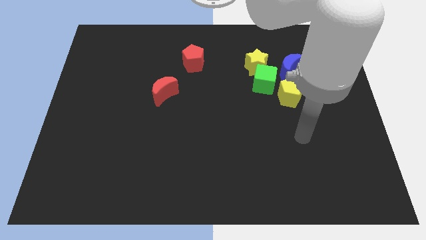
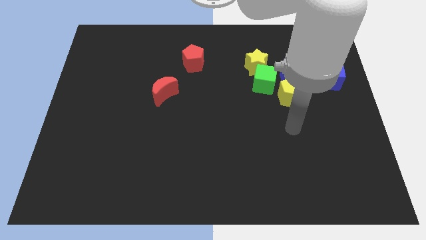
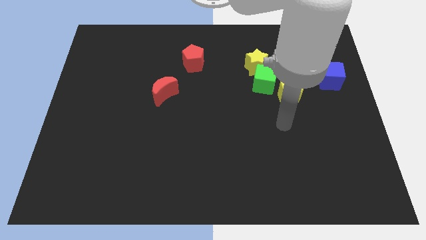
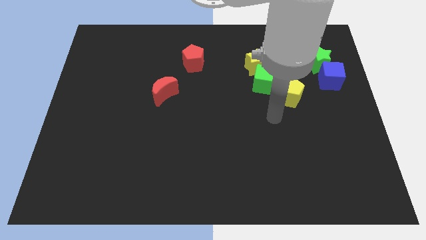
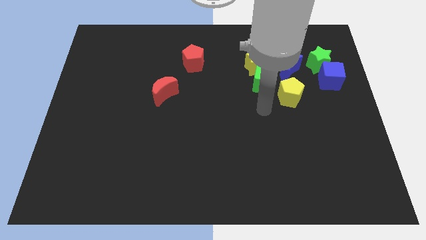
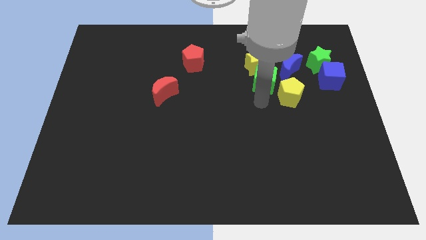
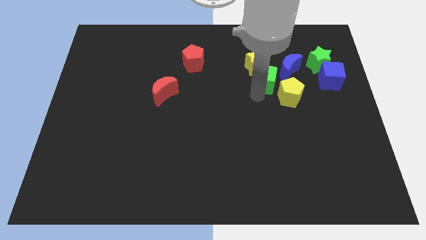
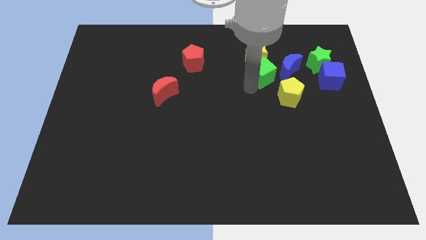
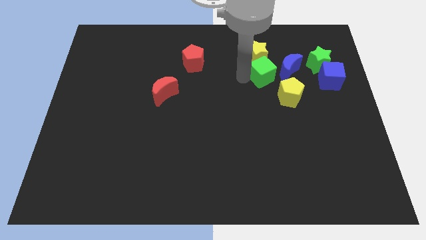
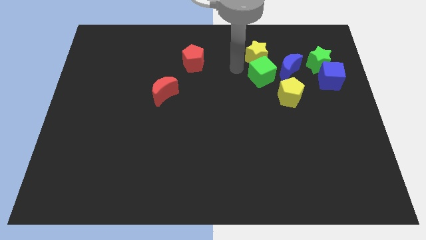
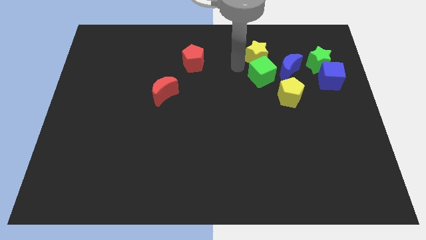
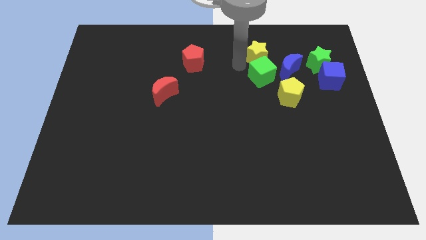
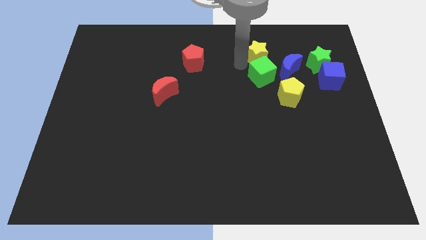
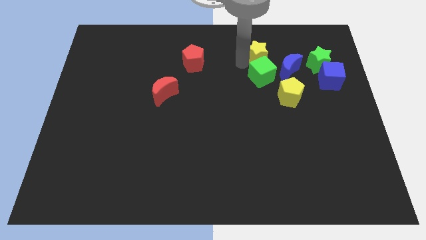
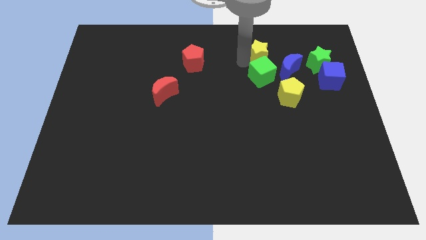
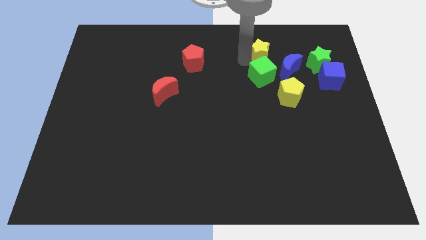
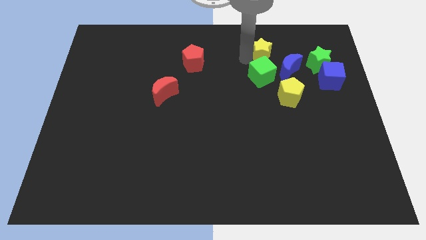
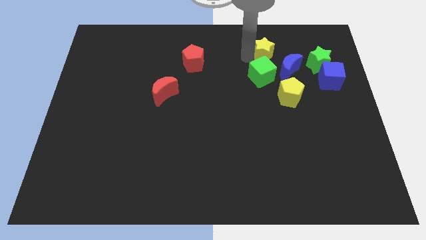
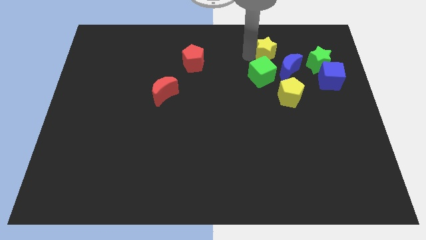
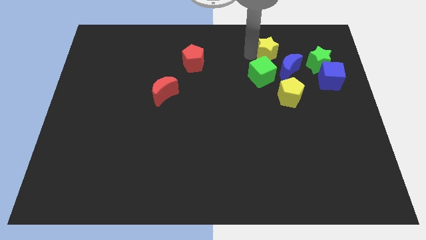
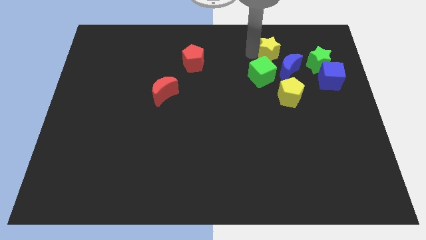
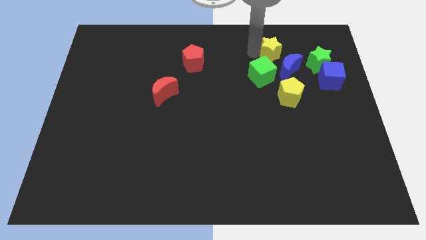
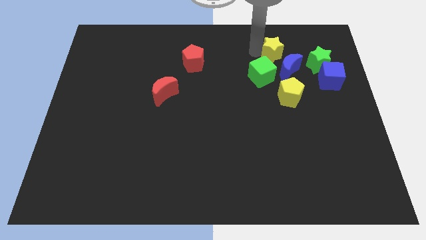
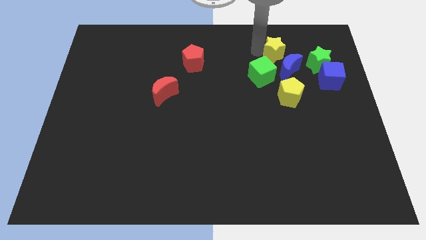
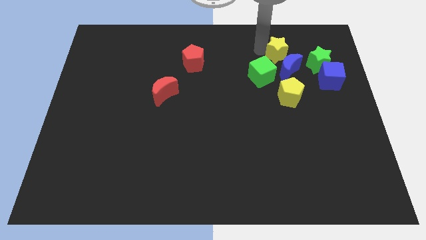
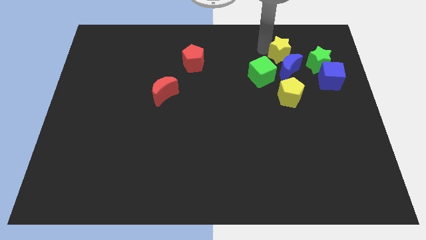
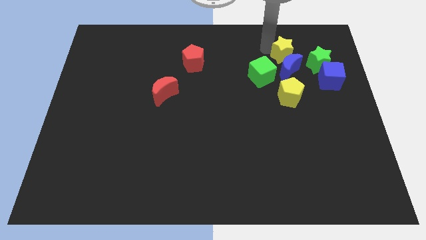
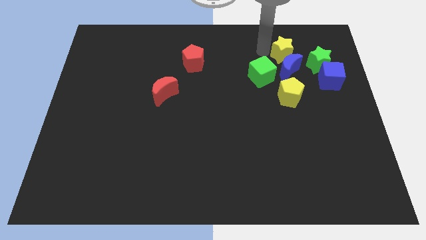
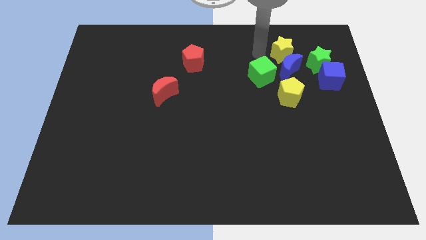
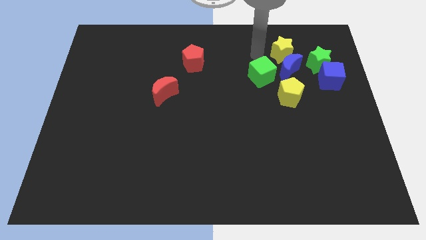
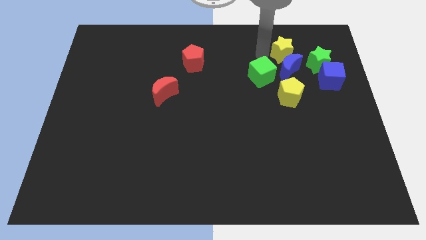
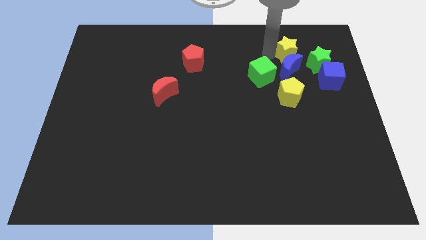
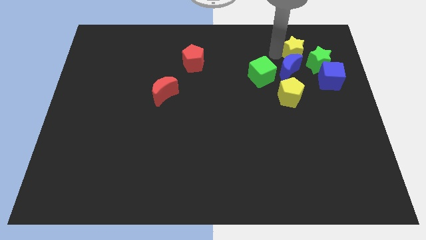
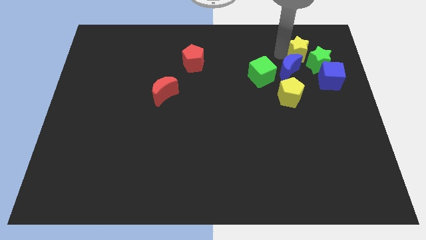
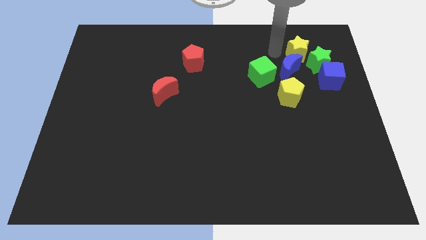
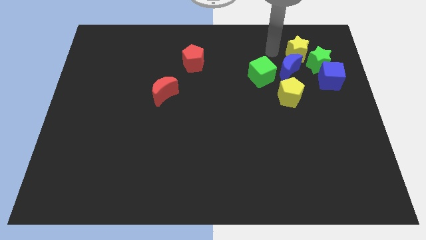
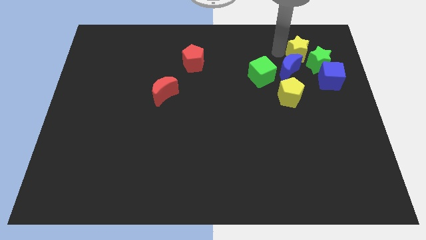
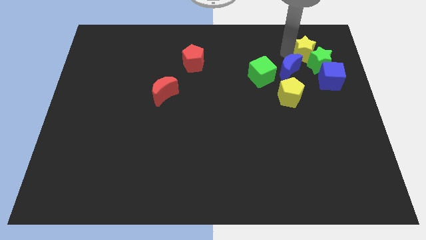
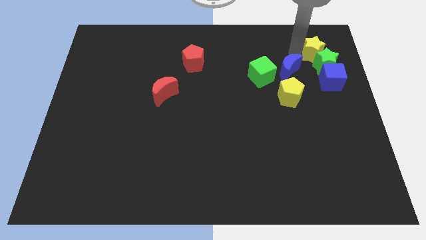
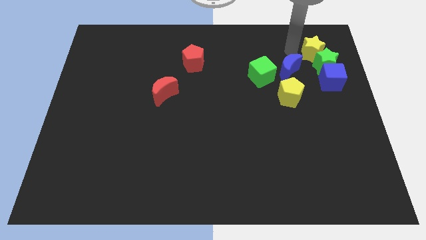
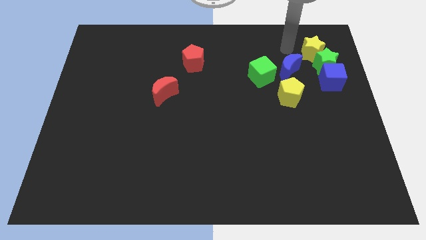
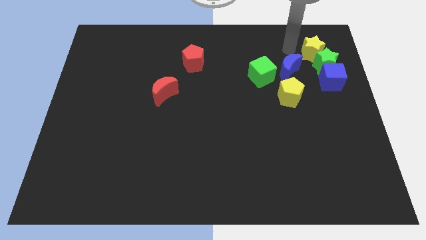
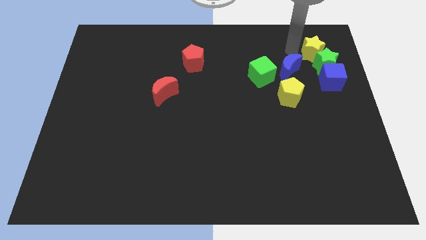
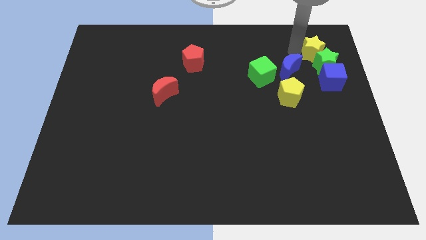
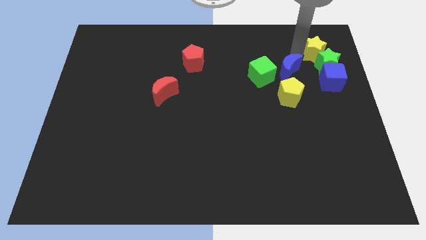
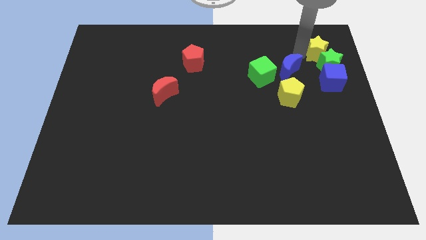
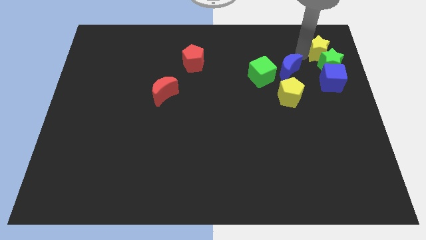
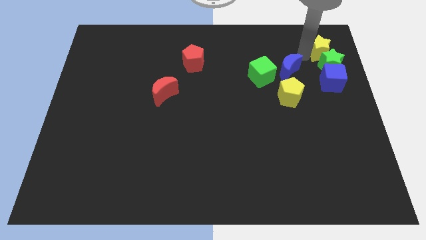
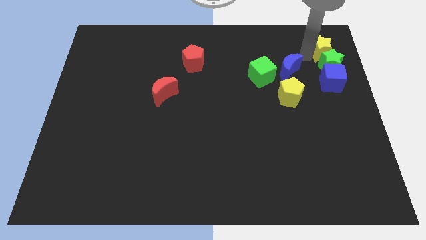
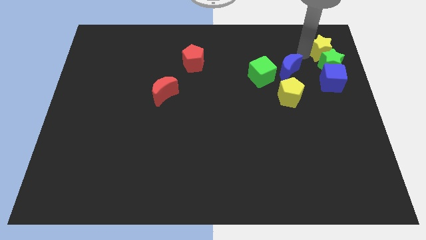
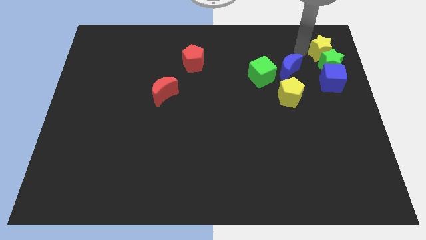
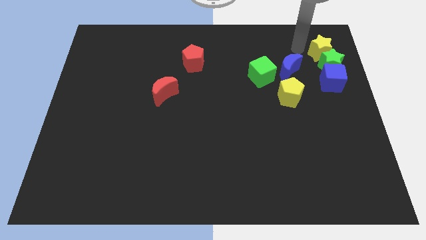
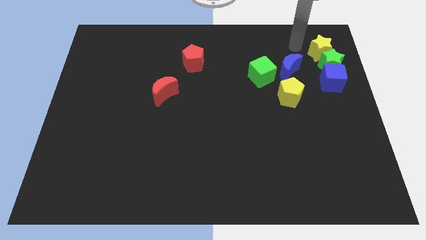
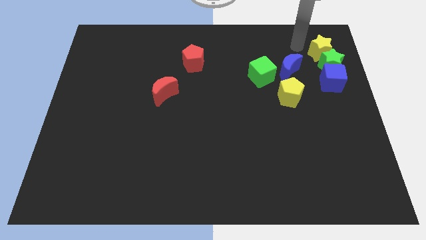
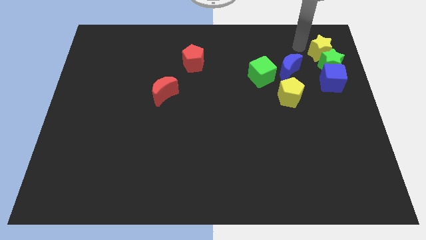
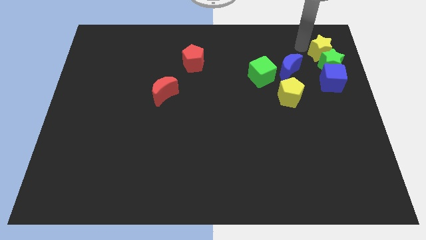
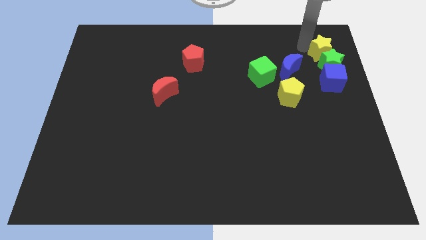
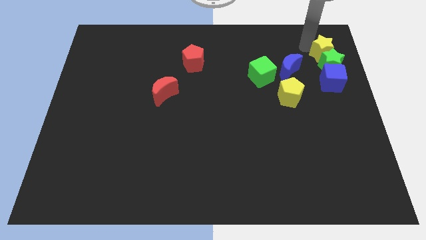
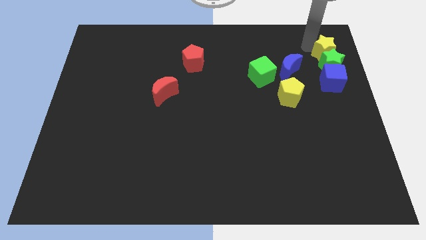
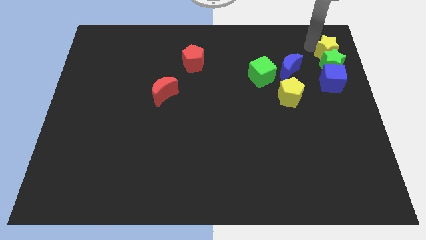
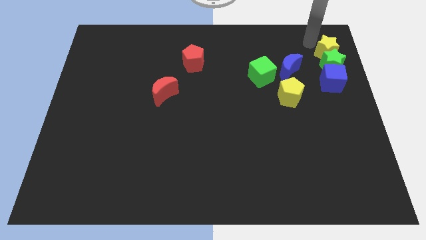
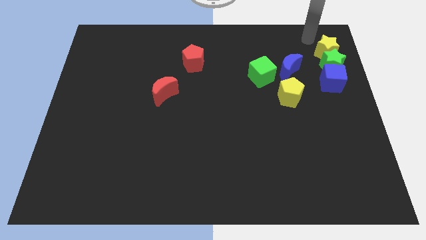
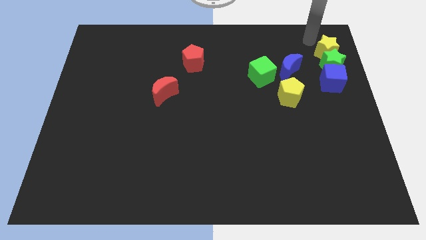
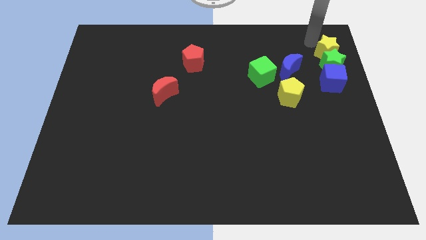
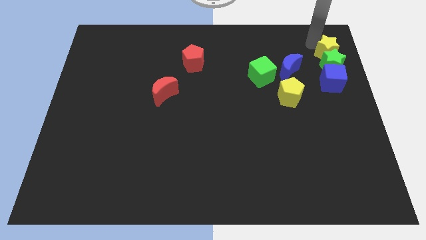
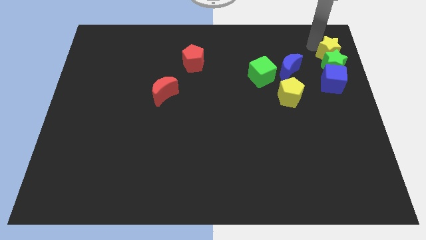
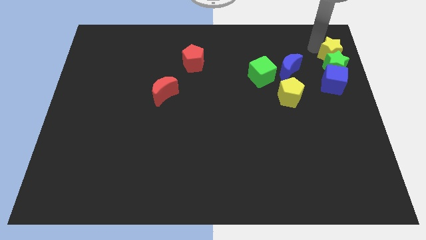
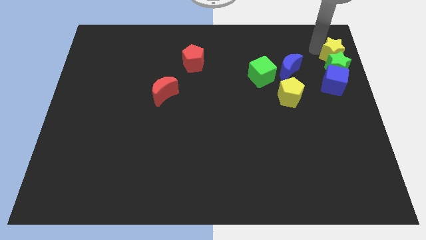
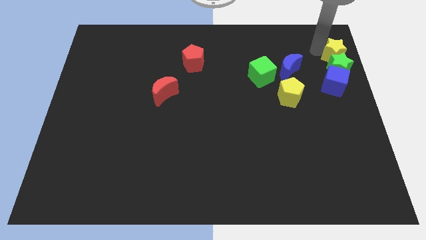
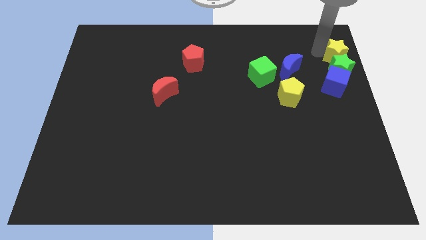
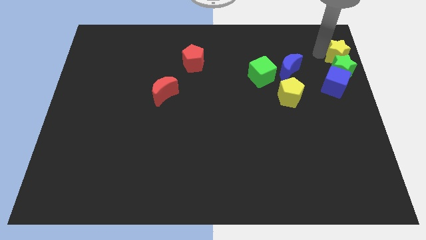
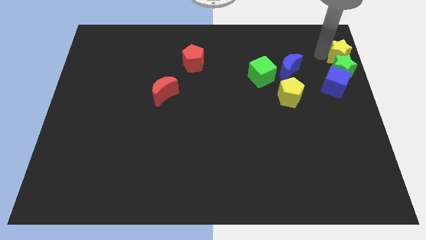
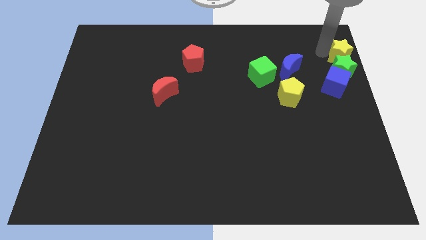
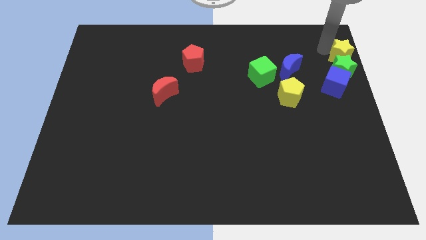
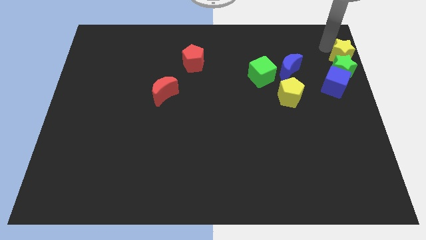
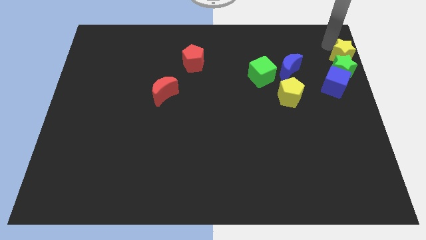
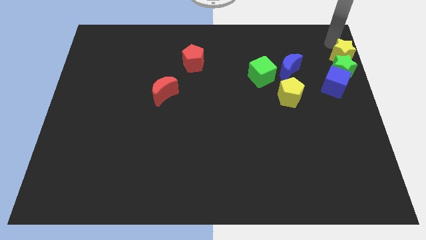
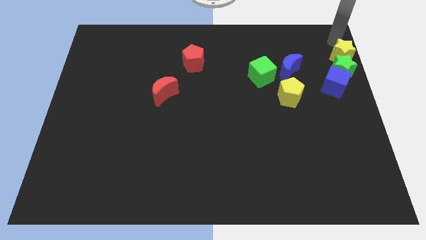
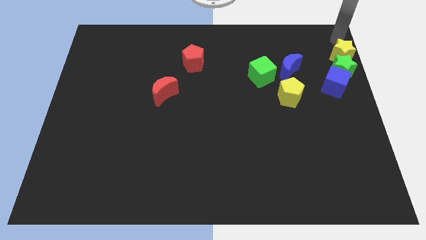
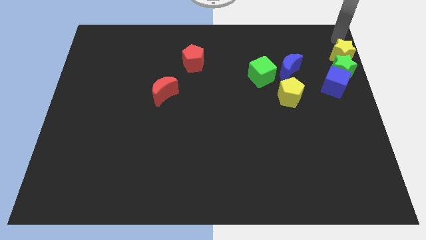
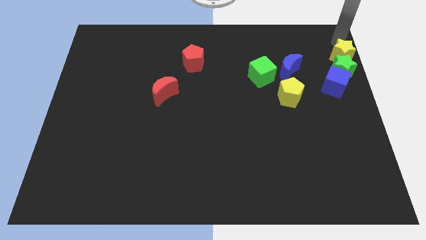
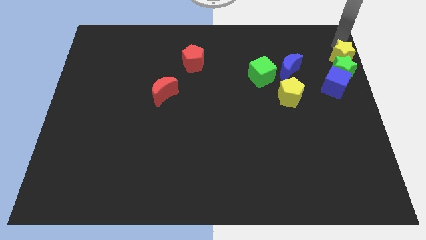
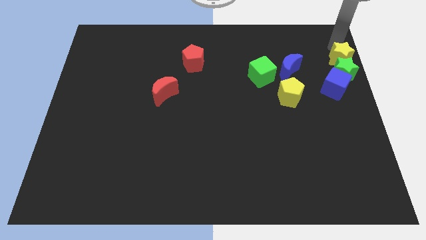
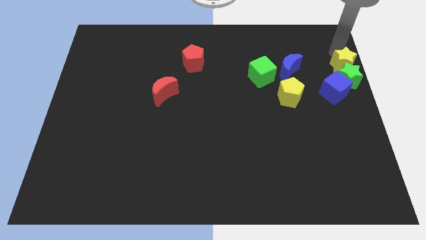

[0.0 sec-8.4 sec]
slide the yellow star to the right side
